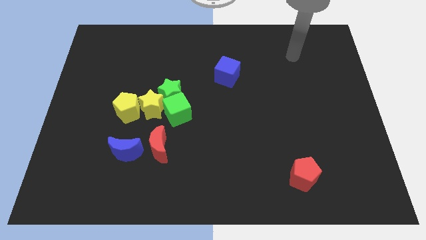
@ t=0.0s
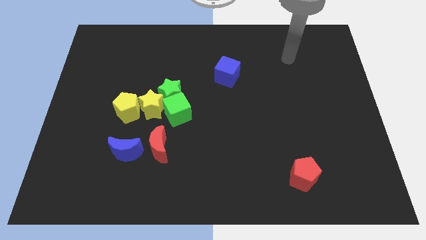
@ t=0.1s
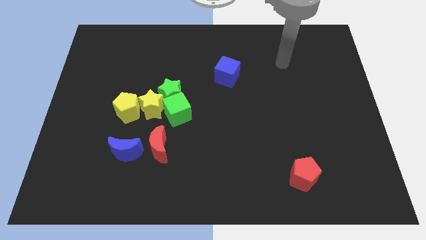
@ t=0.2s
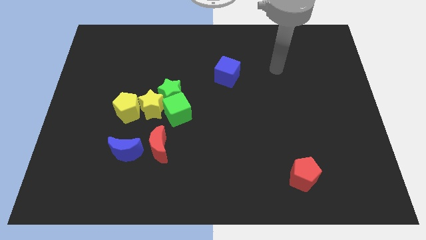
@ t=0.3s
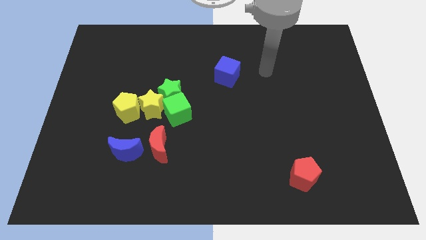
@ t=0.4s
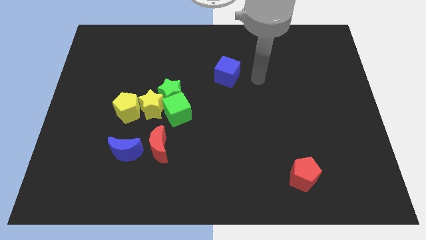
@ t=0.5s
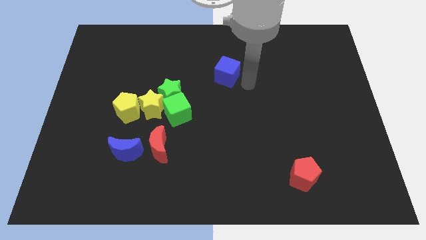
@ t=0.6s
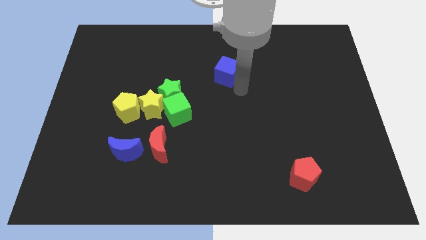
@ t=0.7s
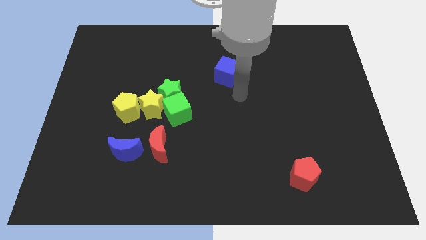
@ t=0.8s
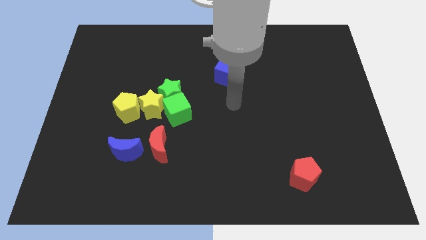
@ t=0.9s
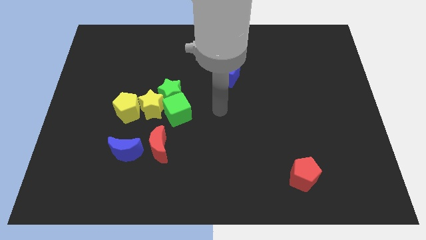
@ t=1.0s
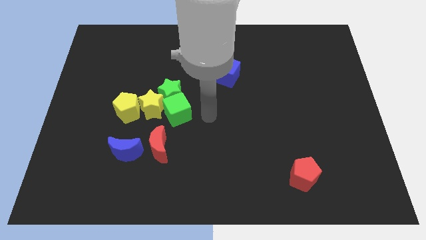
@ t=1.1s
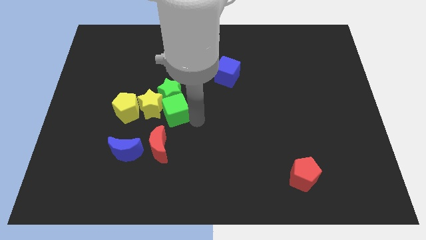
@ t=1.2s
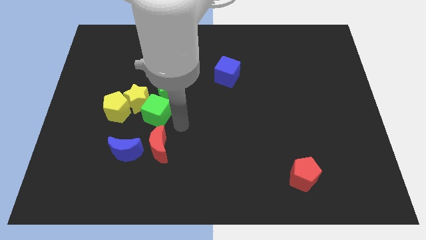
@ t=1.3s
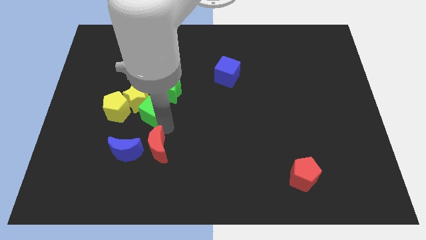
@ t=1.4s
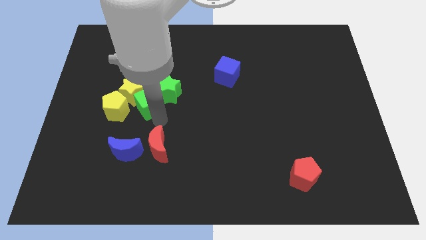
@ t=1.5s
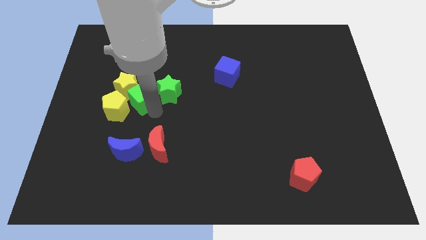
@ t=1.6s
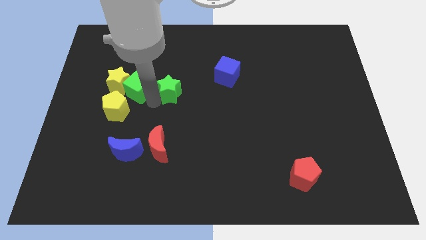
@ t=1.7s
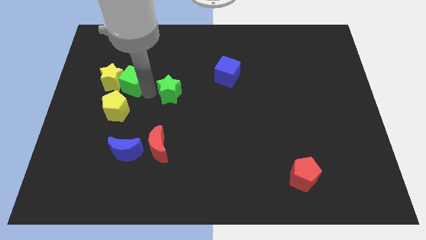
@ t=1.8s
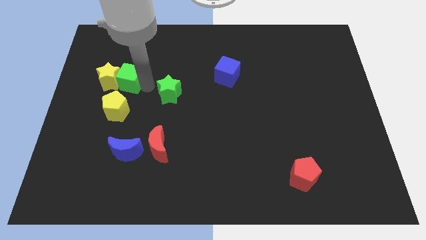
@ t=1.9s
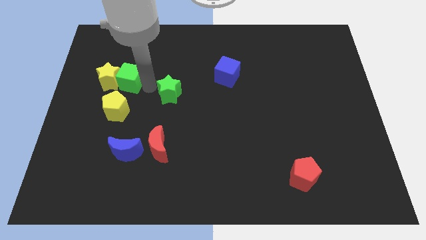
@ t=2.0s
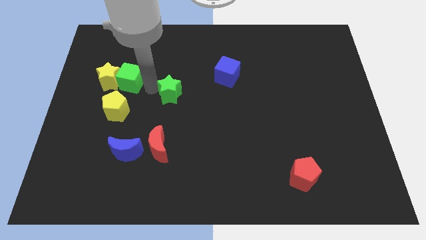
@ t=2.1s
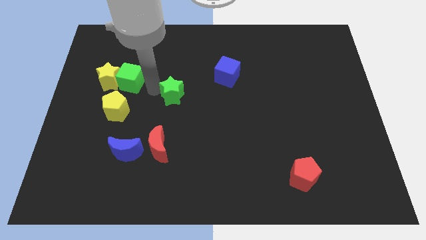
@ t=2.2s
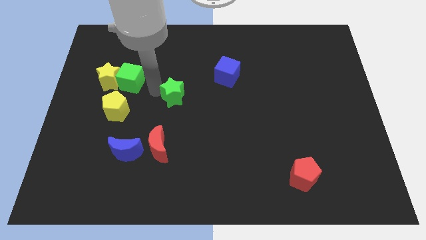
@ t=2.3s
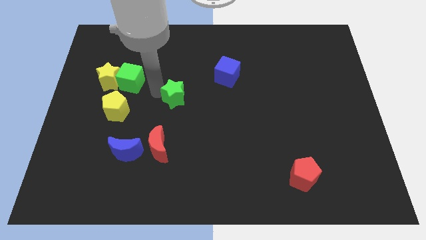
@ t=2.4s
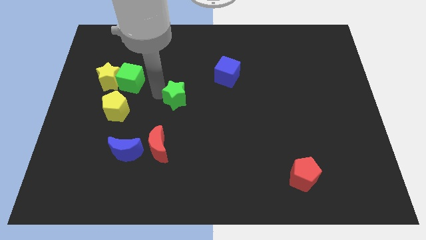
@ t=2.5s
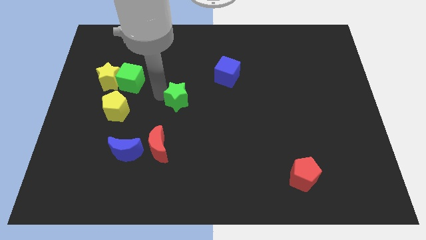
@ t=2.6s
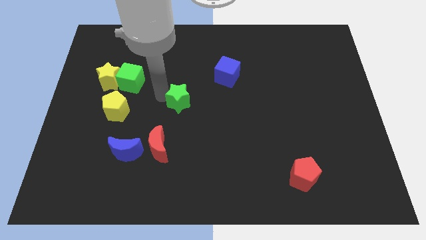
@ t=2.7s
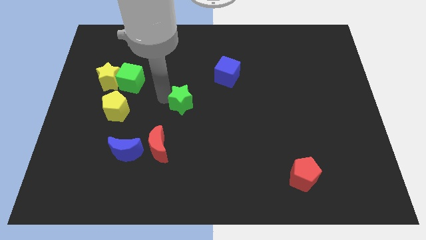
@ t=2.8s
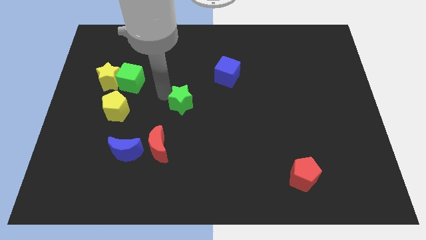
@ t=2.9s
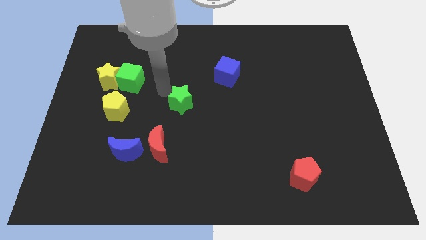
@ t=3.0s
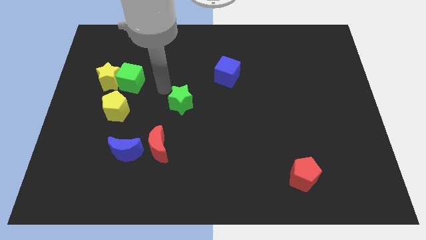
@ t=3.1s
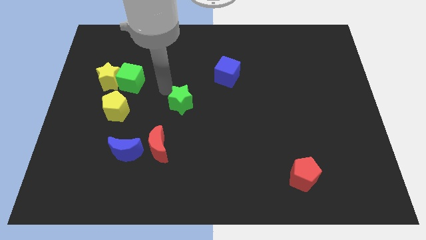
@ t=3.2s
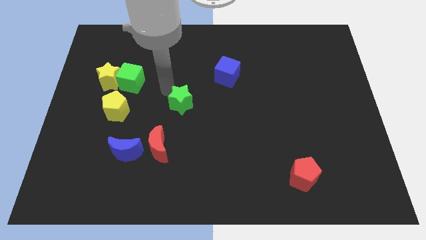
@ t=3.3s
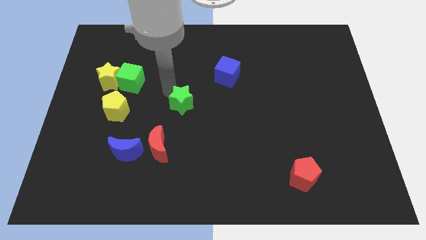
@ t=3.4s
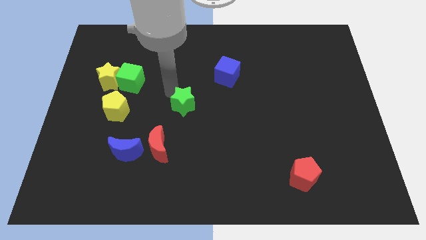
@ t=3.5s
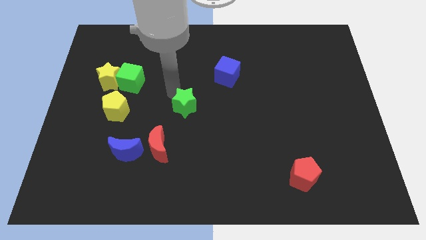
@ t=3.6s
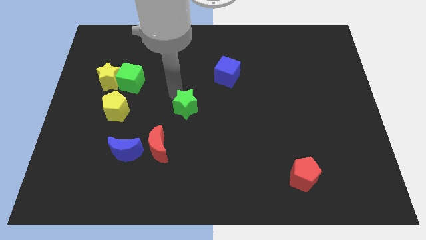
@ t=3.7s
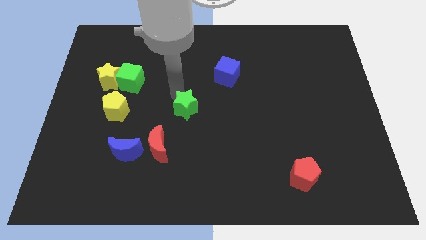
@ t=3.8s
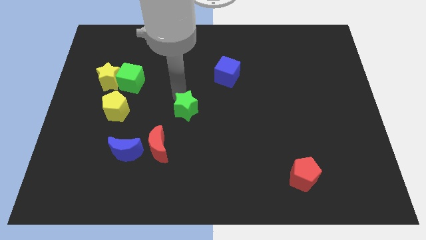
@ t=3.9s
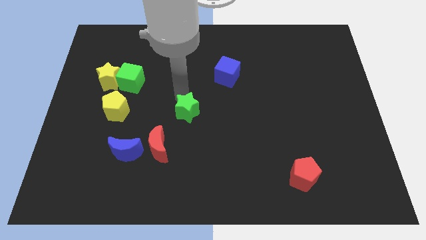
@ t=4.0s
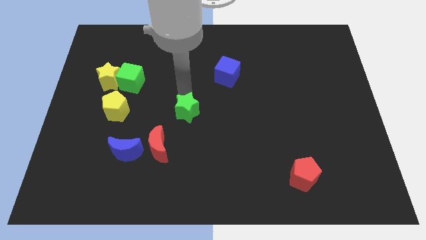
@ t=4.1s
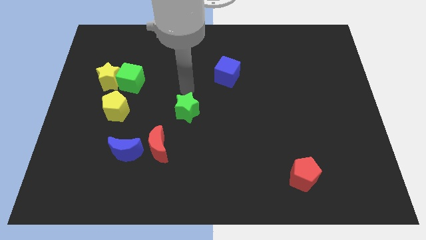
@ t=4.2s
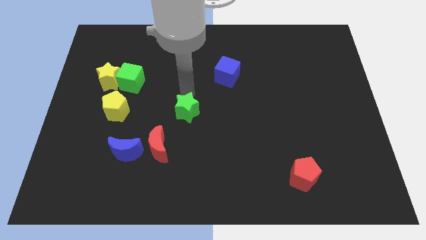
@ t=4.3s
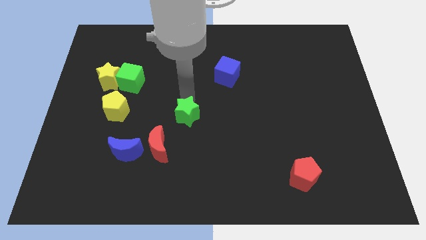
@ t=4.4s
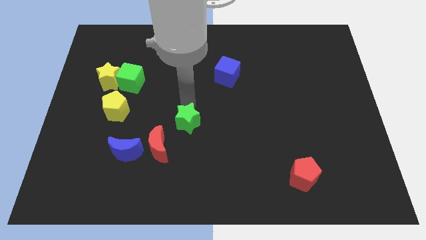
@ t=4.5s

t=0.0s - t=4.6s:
push the green star a bit downwards

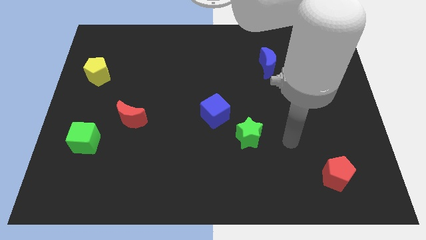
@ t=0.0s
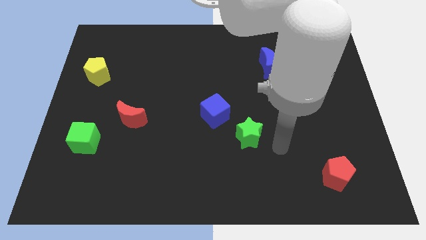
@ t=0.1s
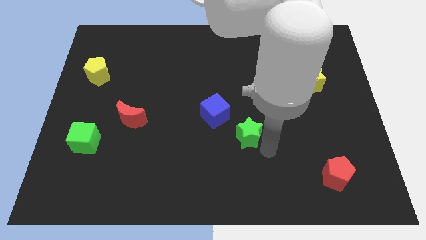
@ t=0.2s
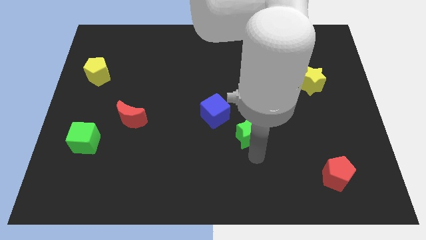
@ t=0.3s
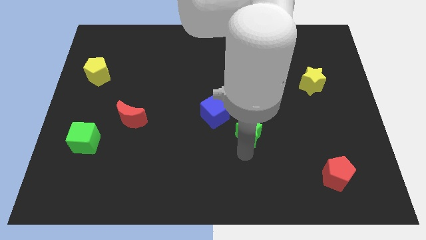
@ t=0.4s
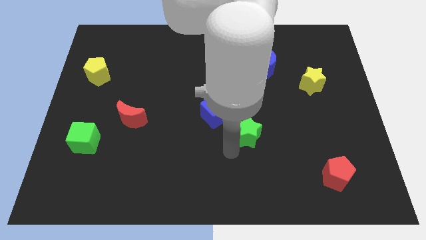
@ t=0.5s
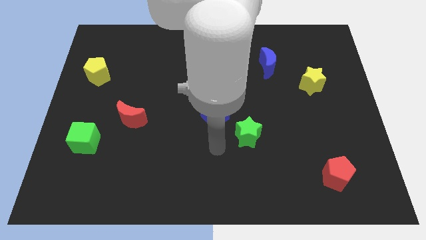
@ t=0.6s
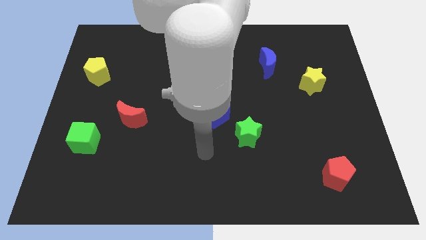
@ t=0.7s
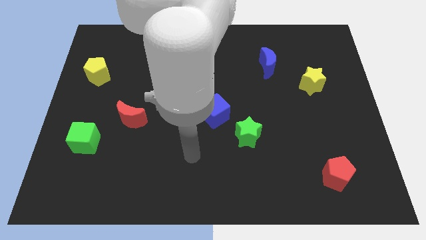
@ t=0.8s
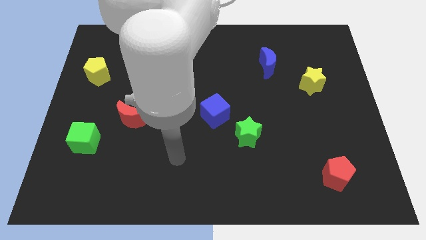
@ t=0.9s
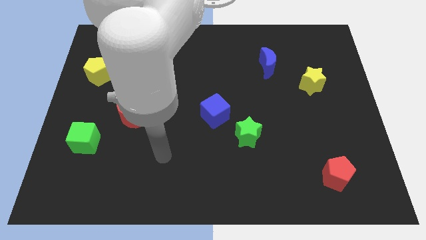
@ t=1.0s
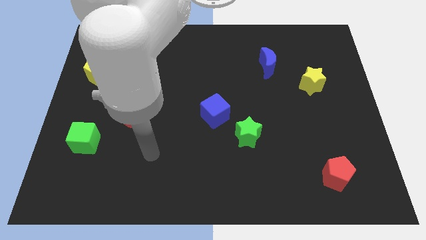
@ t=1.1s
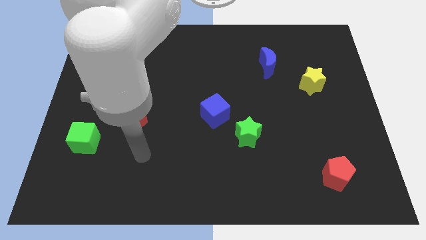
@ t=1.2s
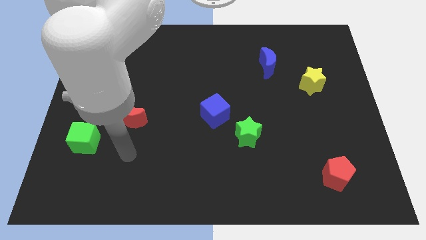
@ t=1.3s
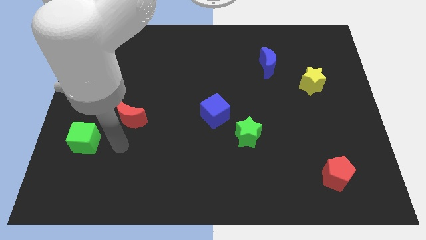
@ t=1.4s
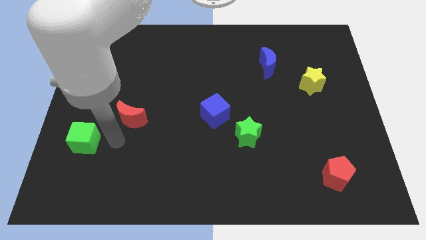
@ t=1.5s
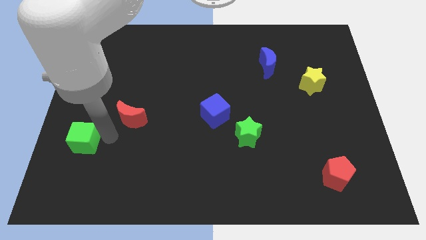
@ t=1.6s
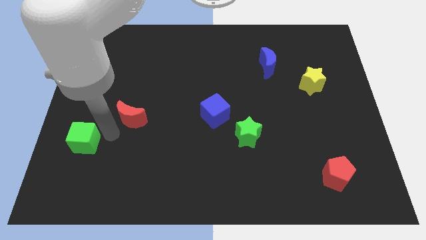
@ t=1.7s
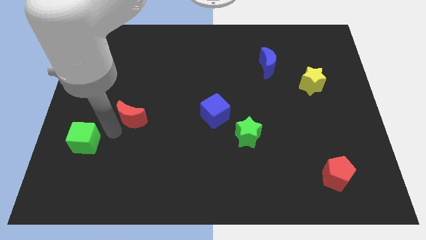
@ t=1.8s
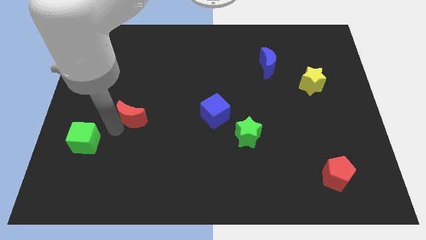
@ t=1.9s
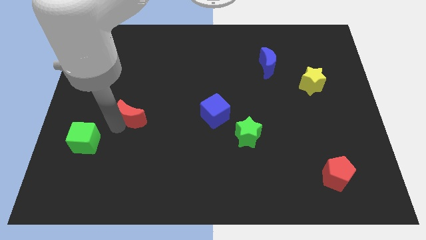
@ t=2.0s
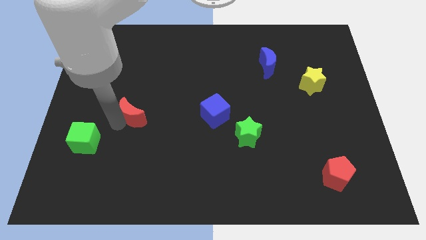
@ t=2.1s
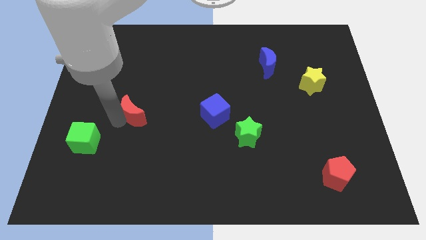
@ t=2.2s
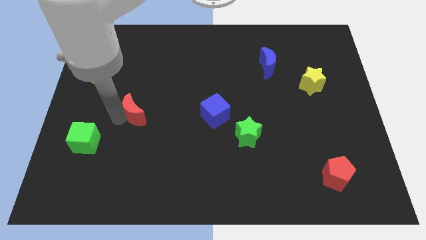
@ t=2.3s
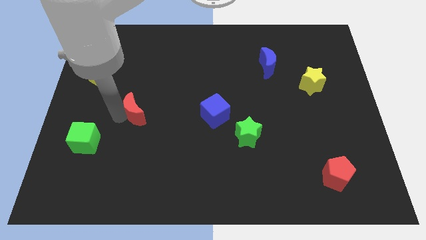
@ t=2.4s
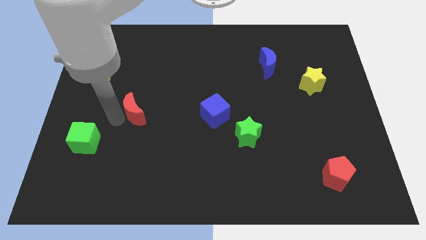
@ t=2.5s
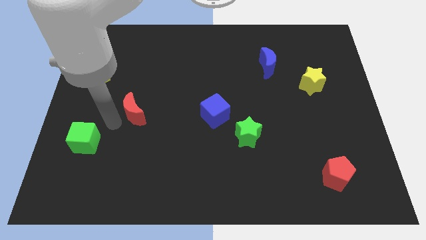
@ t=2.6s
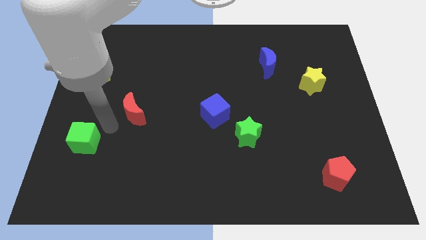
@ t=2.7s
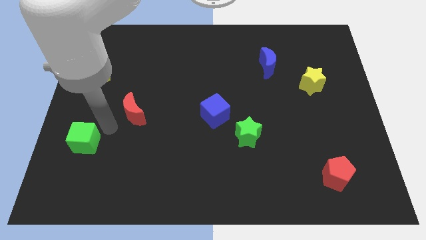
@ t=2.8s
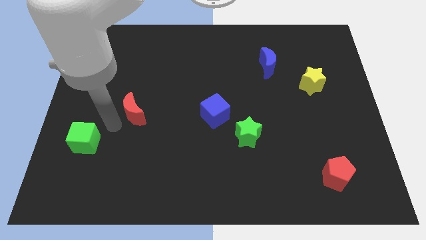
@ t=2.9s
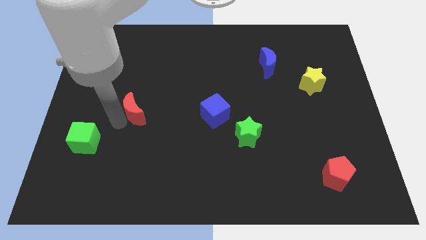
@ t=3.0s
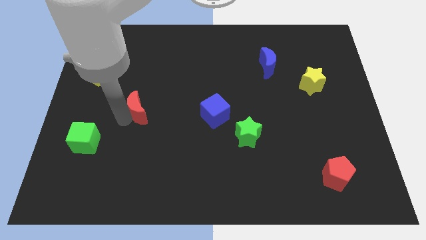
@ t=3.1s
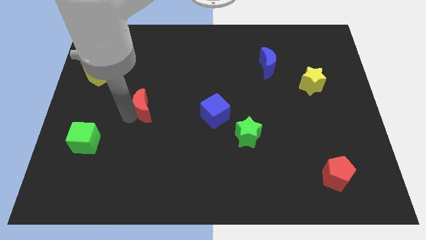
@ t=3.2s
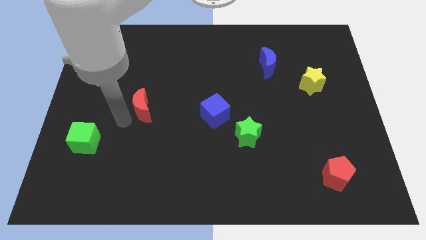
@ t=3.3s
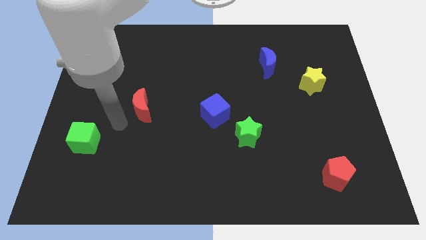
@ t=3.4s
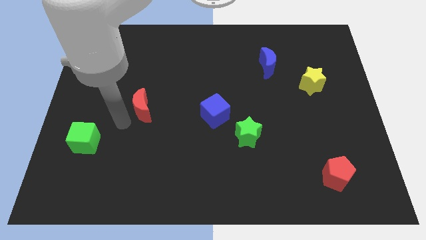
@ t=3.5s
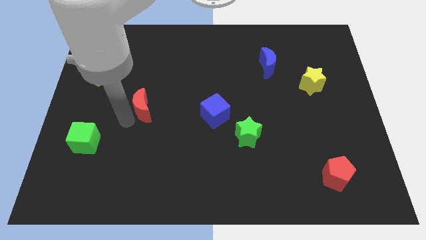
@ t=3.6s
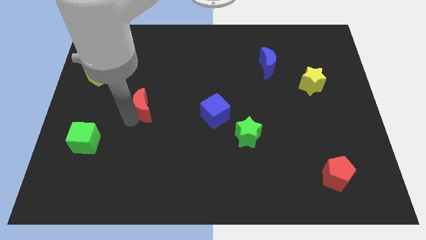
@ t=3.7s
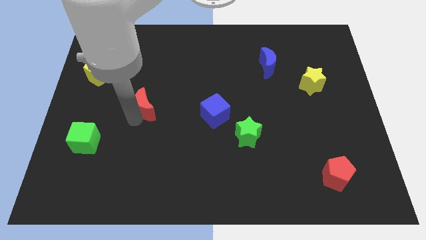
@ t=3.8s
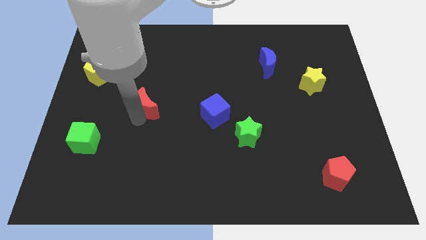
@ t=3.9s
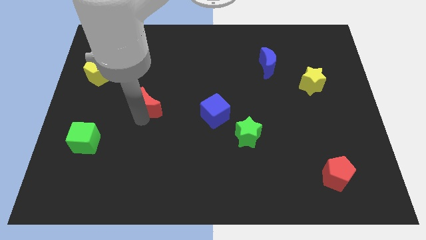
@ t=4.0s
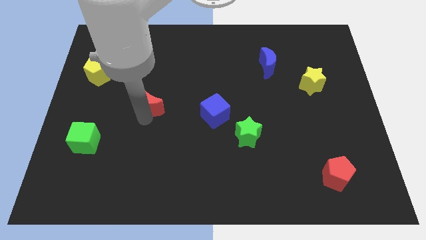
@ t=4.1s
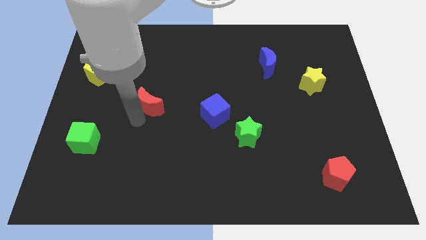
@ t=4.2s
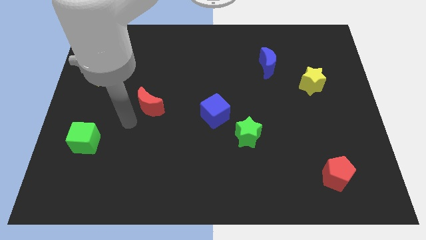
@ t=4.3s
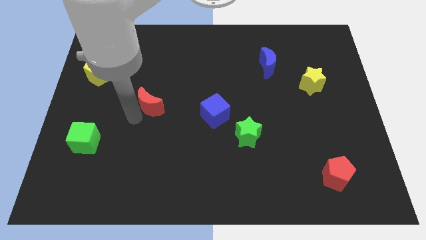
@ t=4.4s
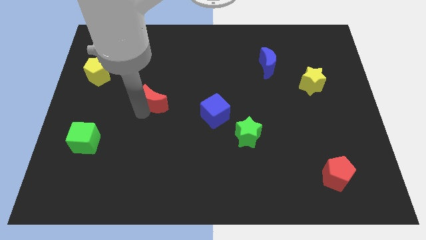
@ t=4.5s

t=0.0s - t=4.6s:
slightly slide the red moon up and then right

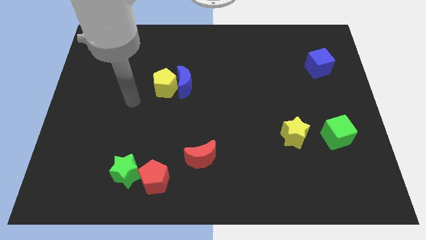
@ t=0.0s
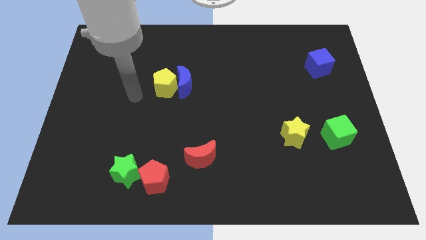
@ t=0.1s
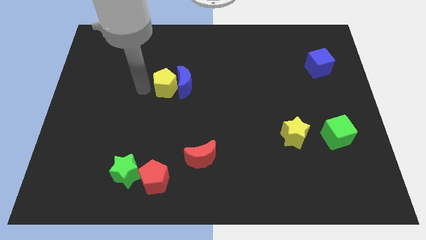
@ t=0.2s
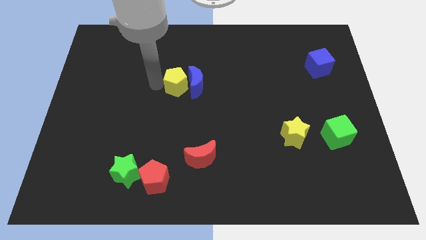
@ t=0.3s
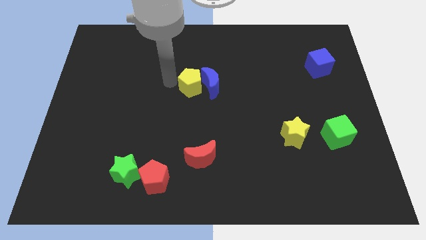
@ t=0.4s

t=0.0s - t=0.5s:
slightly push the blue moon right
